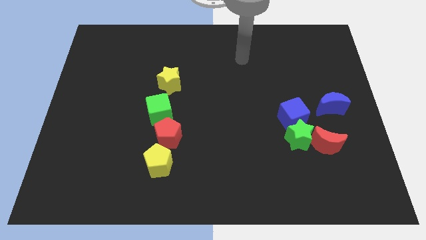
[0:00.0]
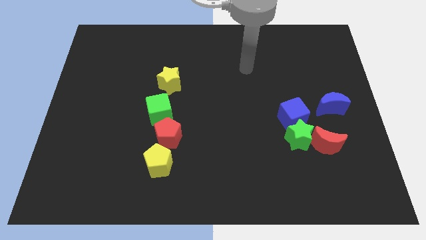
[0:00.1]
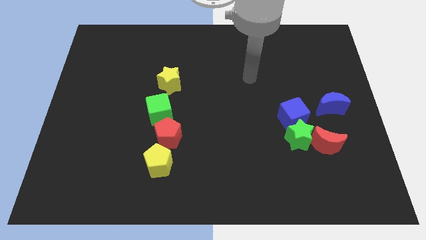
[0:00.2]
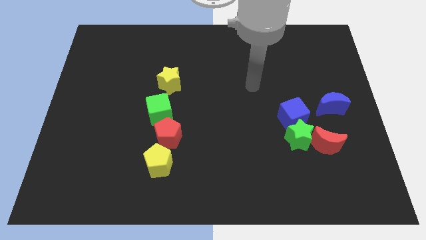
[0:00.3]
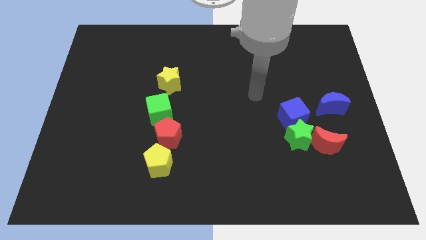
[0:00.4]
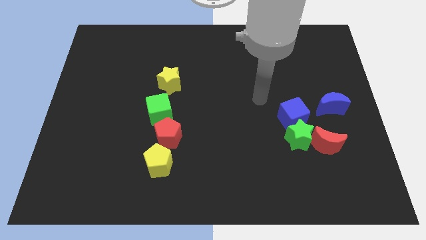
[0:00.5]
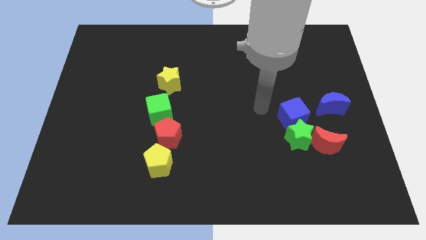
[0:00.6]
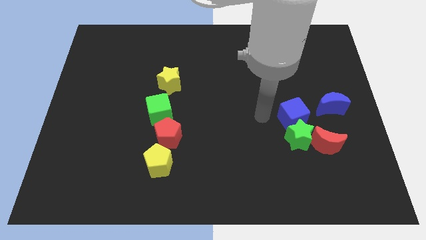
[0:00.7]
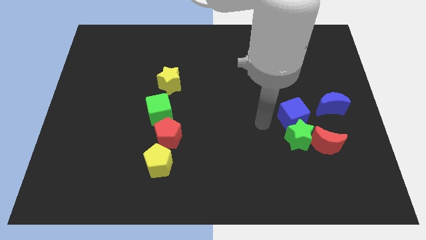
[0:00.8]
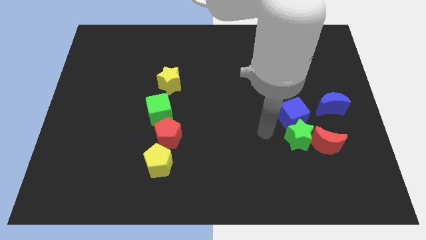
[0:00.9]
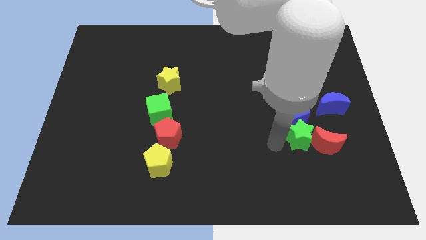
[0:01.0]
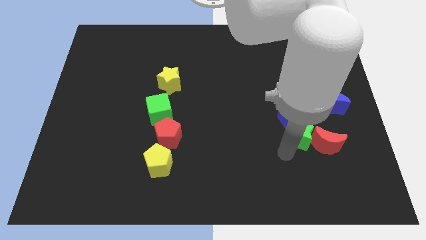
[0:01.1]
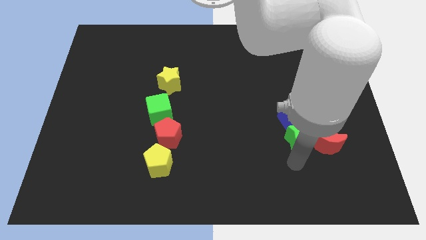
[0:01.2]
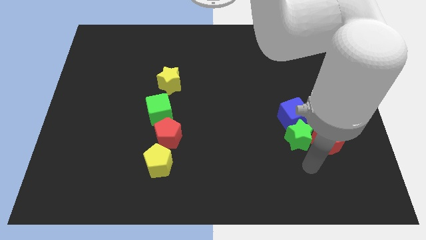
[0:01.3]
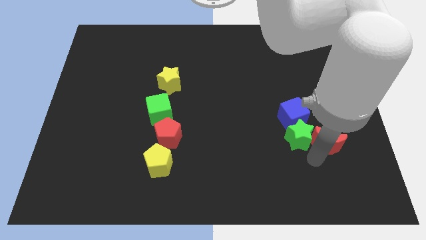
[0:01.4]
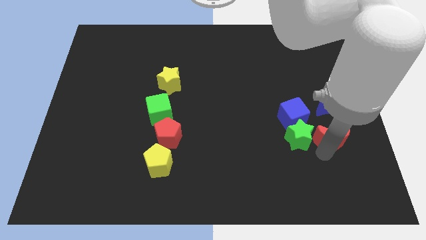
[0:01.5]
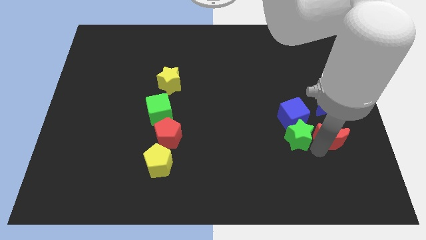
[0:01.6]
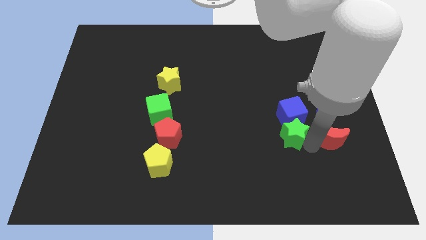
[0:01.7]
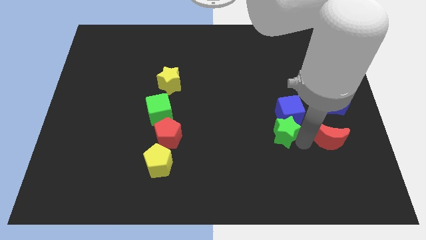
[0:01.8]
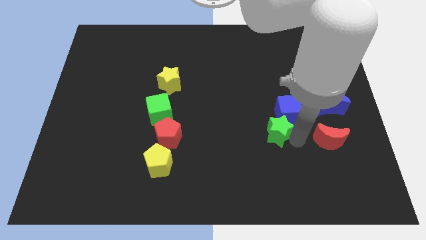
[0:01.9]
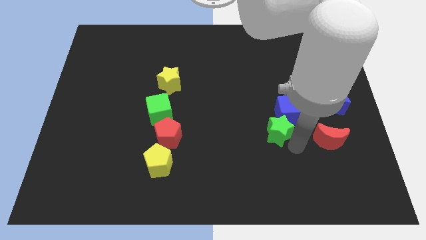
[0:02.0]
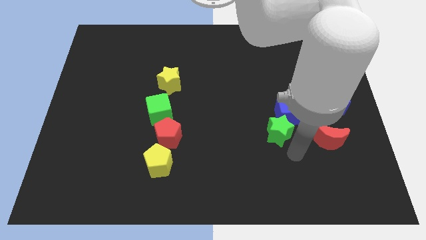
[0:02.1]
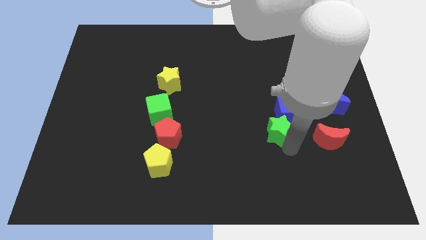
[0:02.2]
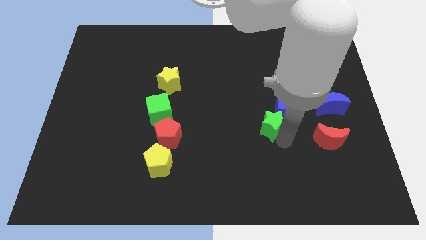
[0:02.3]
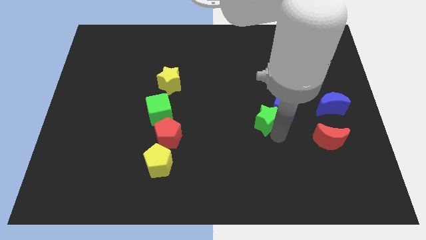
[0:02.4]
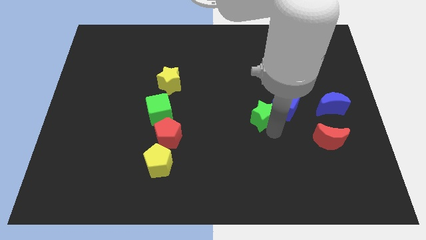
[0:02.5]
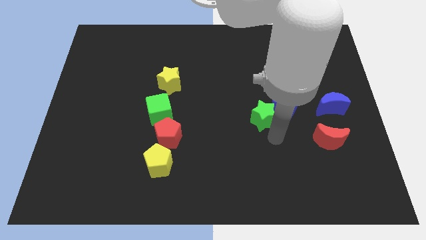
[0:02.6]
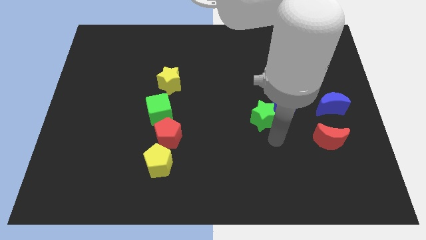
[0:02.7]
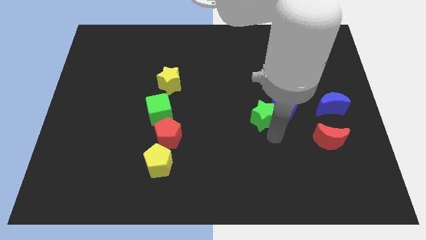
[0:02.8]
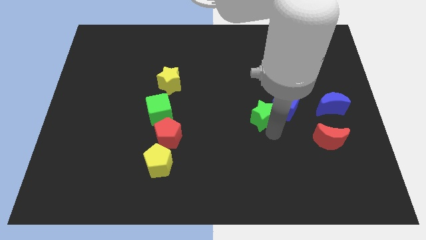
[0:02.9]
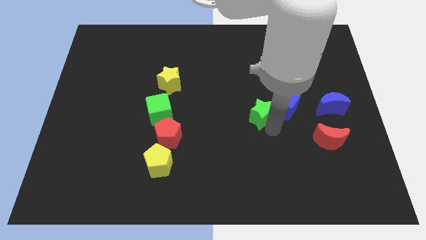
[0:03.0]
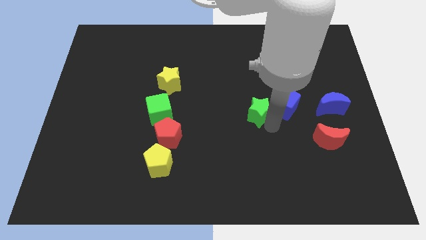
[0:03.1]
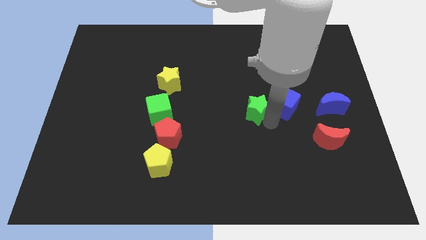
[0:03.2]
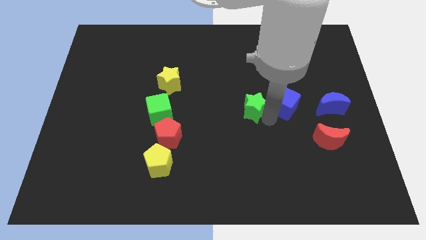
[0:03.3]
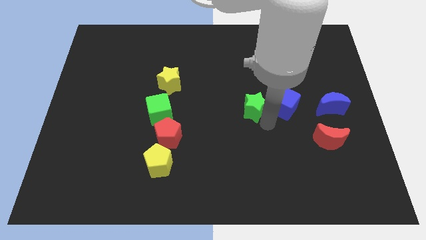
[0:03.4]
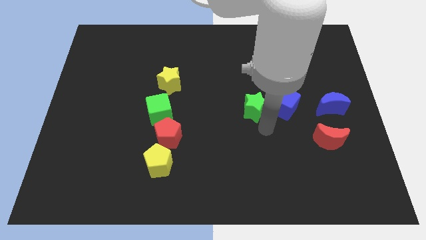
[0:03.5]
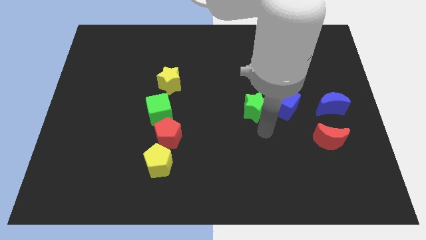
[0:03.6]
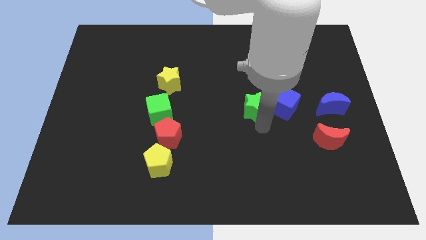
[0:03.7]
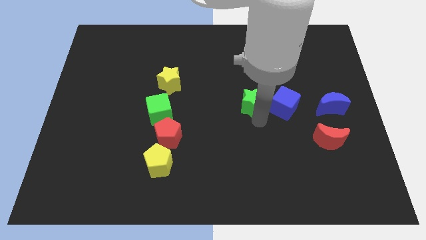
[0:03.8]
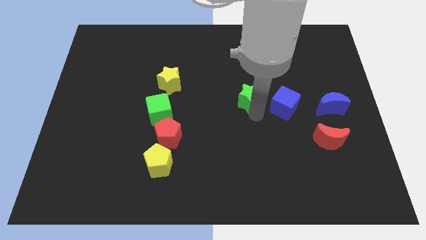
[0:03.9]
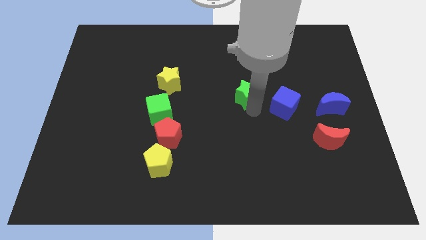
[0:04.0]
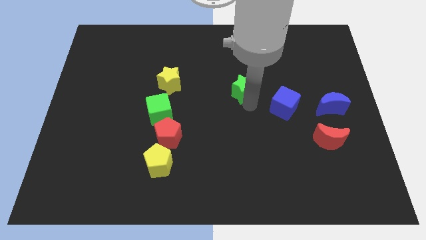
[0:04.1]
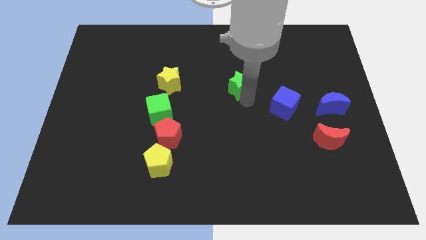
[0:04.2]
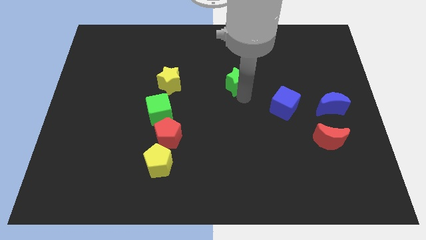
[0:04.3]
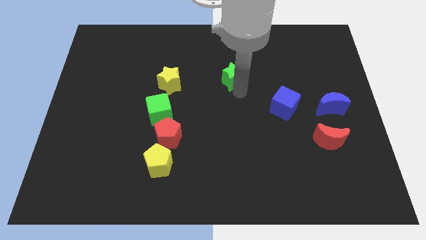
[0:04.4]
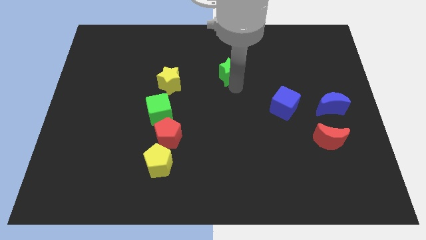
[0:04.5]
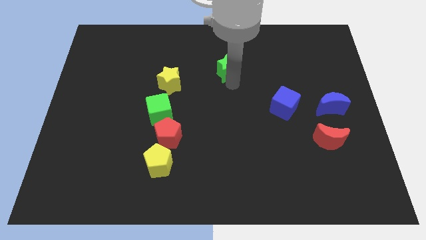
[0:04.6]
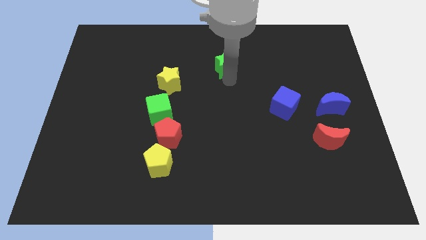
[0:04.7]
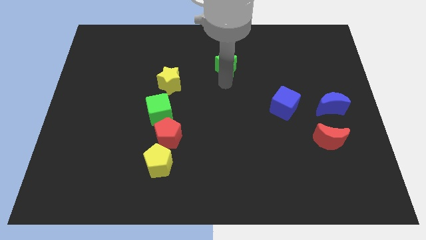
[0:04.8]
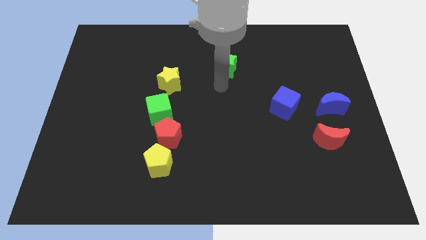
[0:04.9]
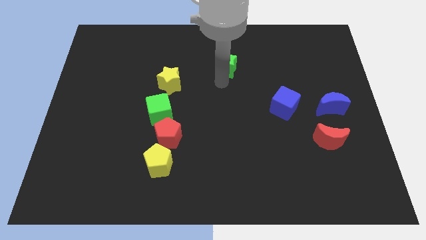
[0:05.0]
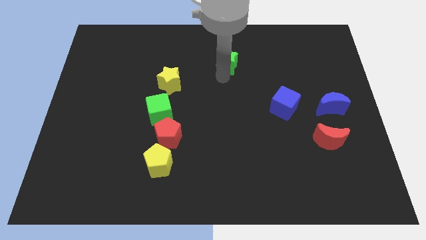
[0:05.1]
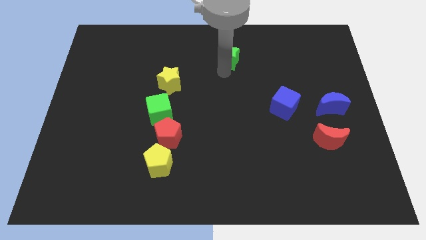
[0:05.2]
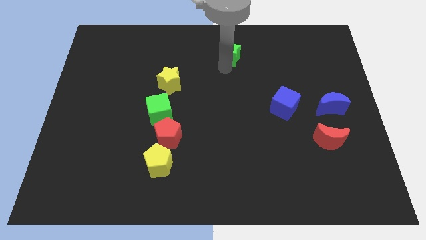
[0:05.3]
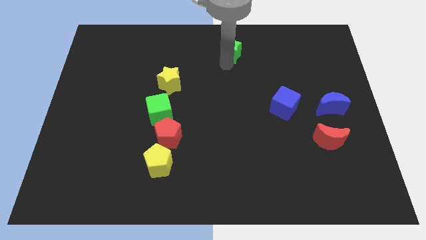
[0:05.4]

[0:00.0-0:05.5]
push the green star to the towards your base

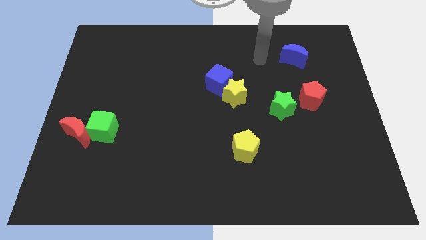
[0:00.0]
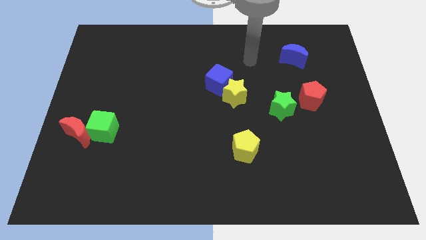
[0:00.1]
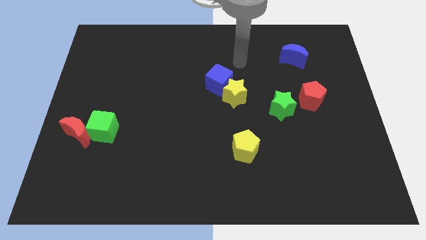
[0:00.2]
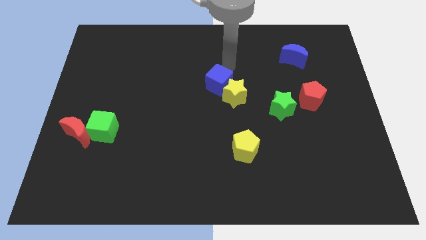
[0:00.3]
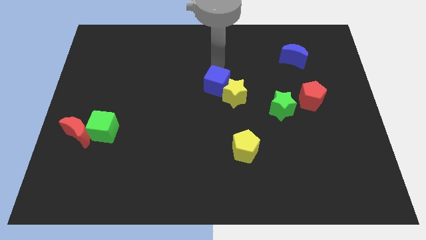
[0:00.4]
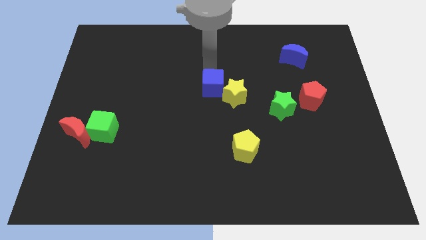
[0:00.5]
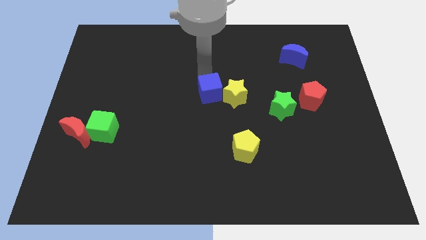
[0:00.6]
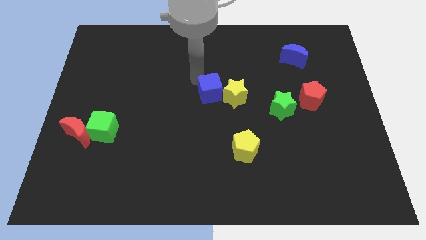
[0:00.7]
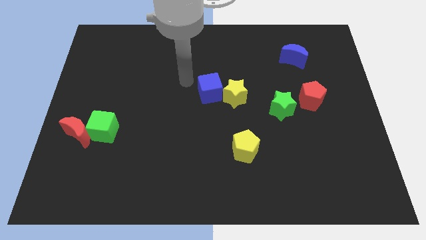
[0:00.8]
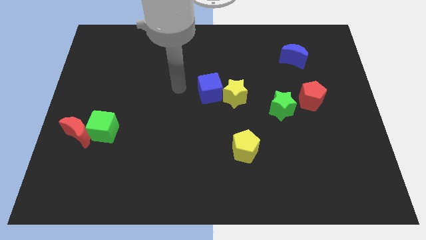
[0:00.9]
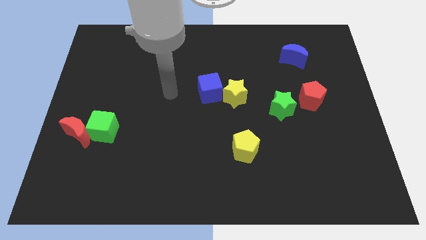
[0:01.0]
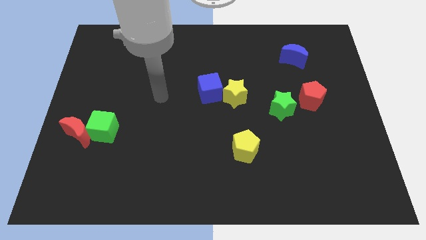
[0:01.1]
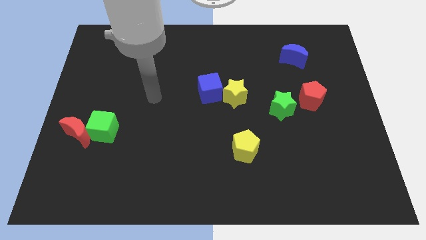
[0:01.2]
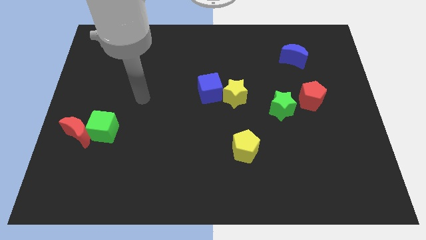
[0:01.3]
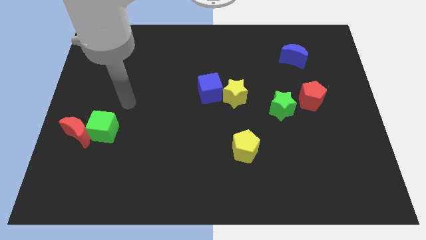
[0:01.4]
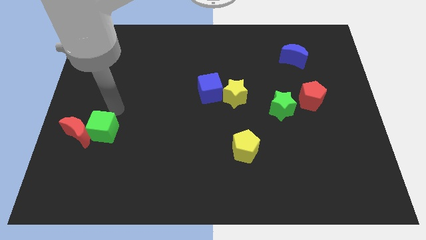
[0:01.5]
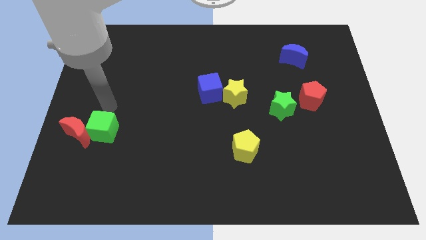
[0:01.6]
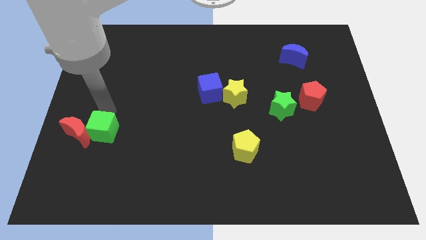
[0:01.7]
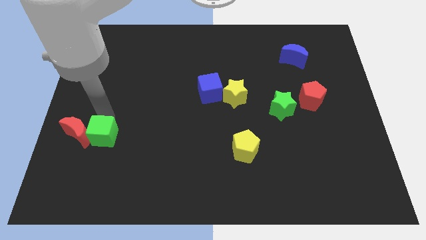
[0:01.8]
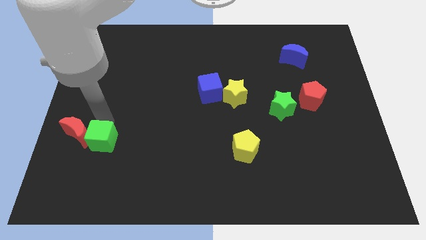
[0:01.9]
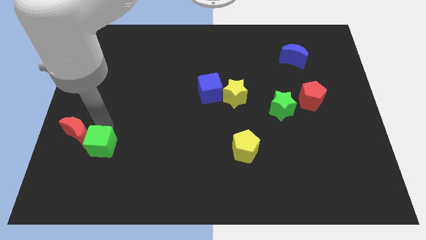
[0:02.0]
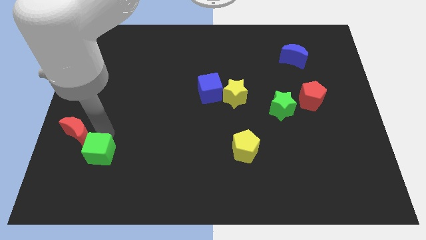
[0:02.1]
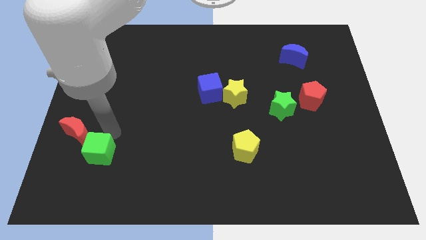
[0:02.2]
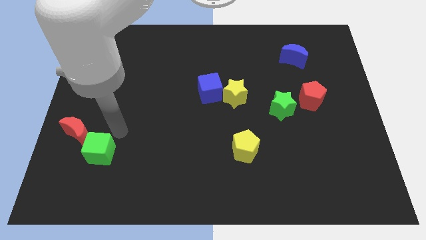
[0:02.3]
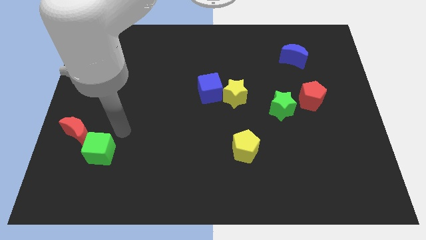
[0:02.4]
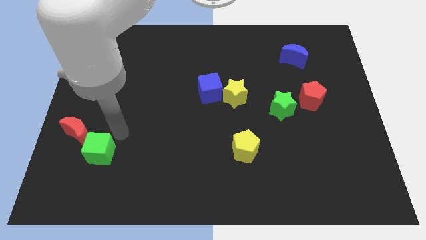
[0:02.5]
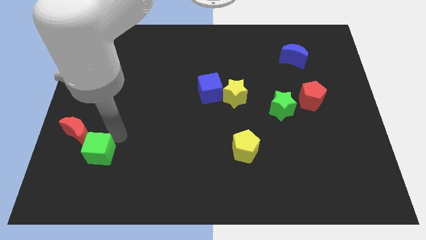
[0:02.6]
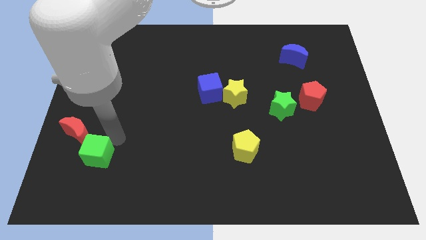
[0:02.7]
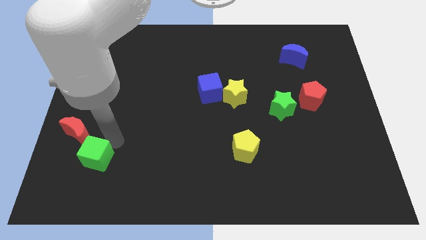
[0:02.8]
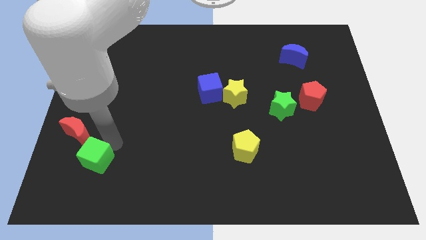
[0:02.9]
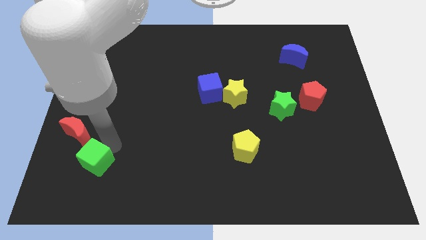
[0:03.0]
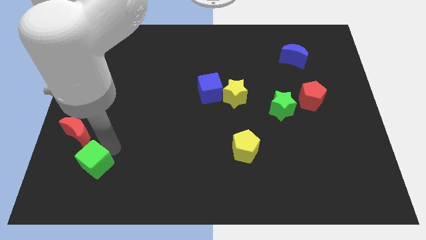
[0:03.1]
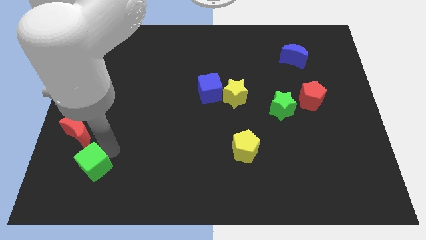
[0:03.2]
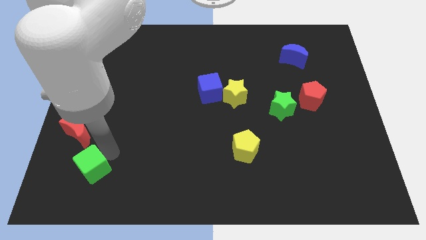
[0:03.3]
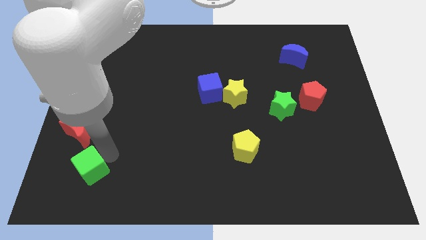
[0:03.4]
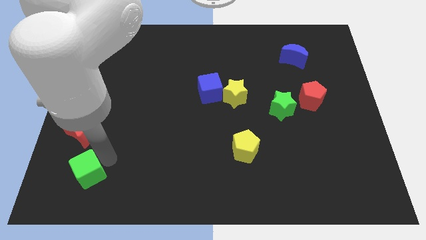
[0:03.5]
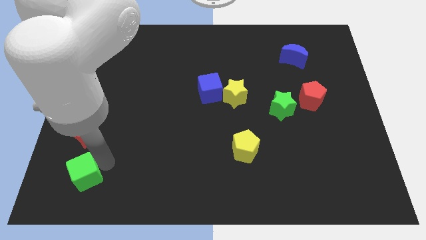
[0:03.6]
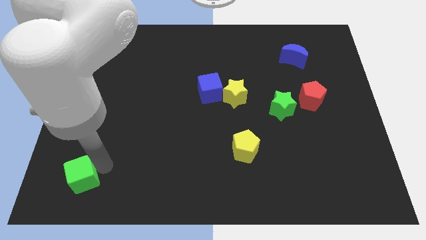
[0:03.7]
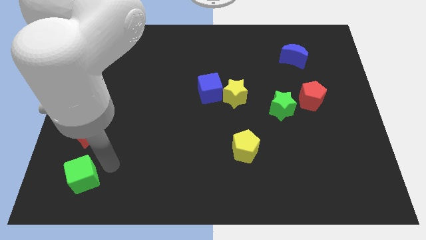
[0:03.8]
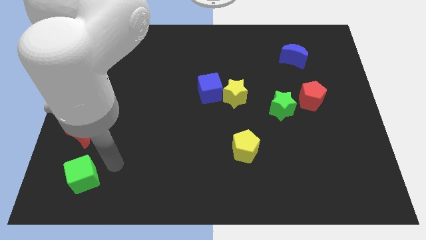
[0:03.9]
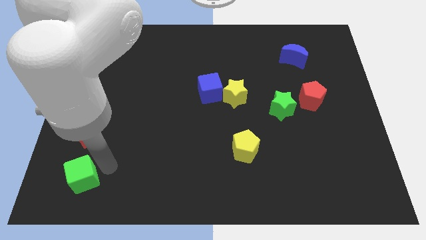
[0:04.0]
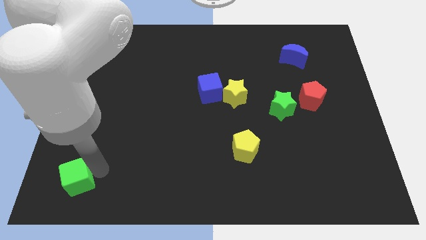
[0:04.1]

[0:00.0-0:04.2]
move the green cube to the bottom left of the board
